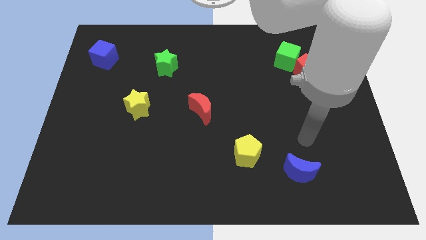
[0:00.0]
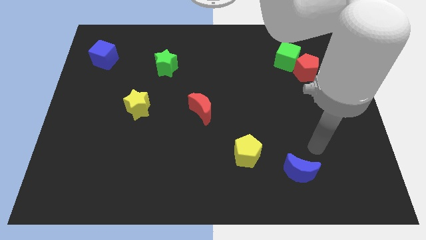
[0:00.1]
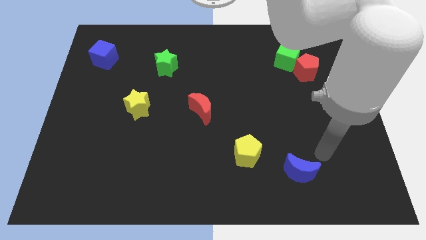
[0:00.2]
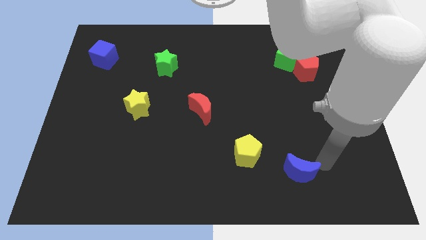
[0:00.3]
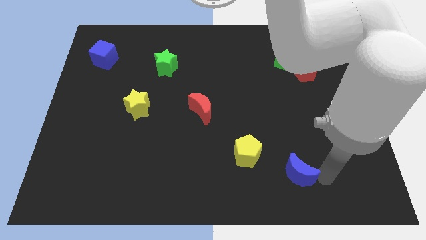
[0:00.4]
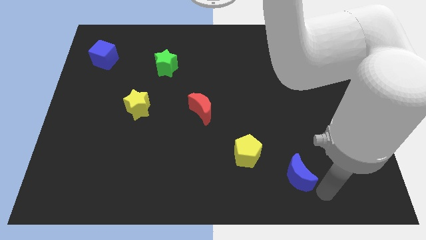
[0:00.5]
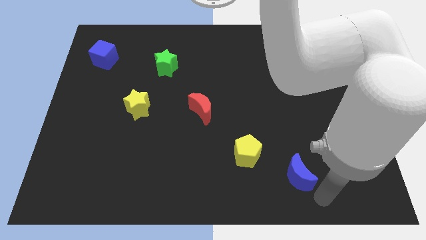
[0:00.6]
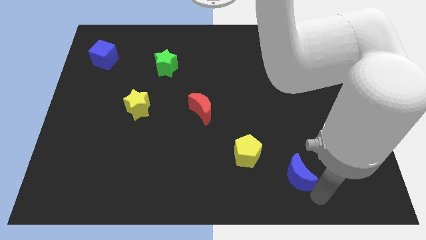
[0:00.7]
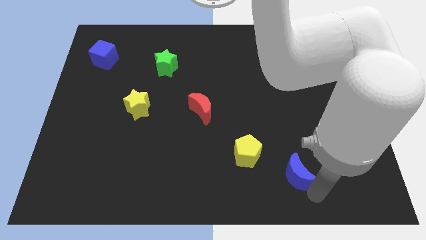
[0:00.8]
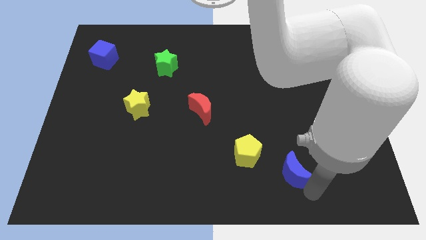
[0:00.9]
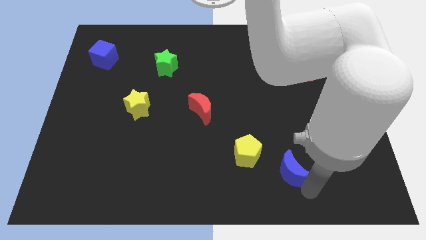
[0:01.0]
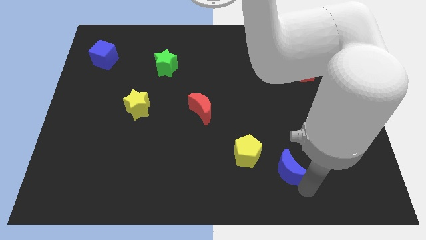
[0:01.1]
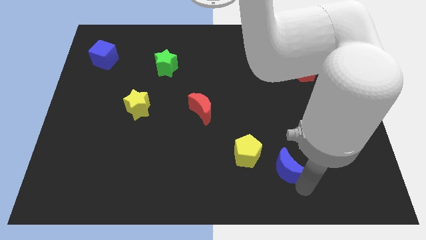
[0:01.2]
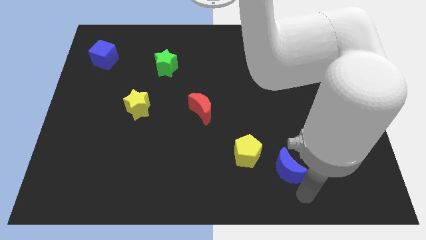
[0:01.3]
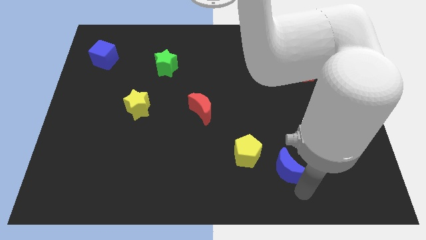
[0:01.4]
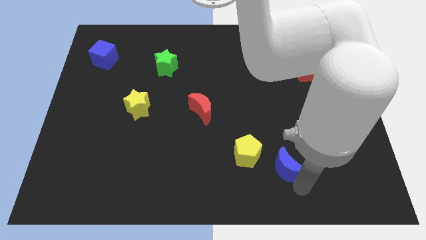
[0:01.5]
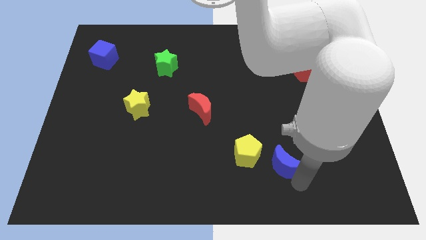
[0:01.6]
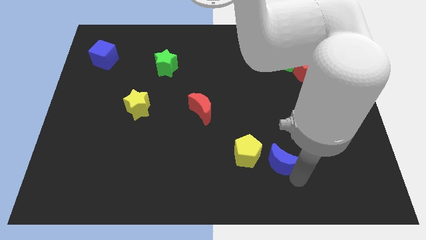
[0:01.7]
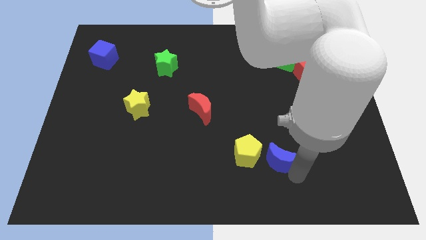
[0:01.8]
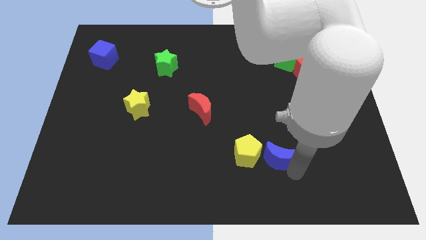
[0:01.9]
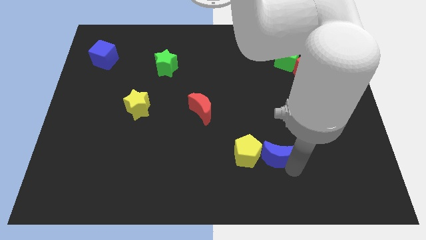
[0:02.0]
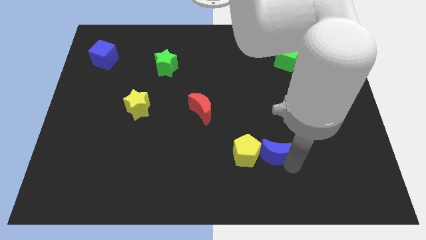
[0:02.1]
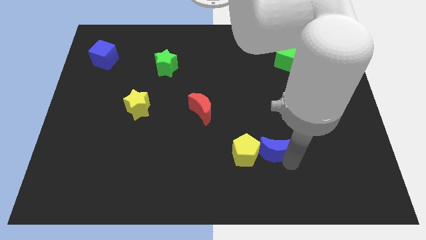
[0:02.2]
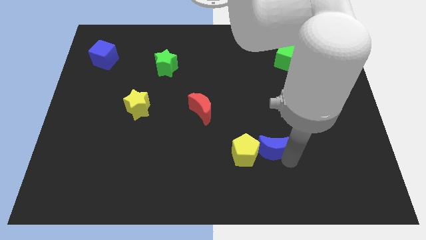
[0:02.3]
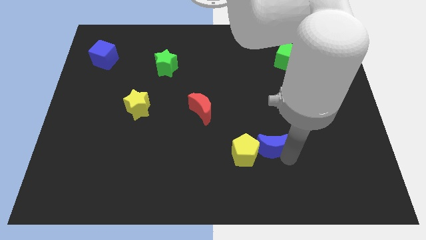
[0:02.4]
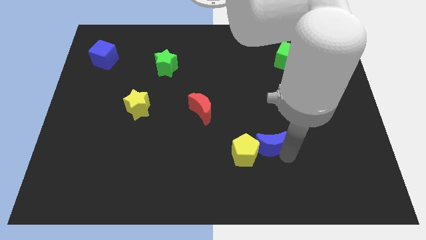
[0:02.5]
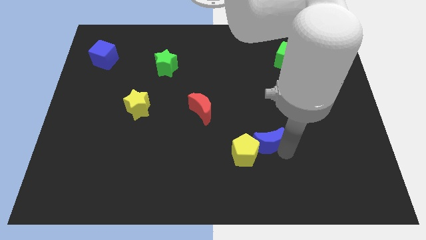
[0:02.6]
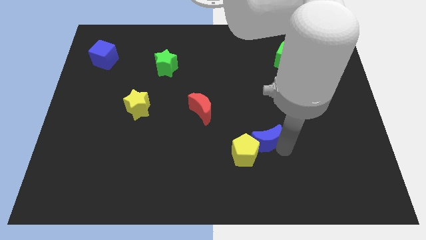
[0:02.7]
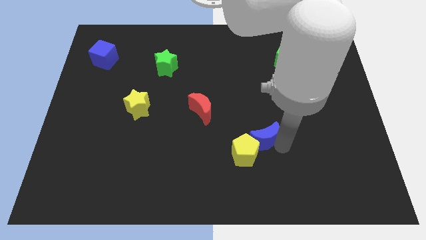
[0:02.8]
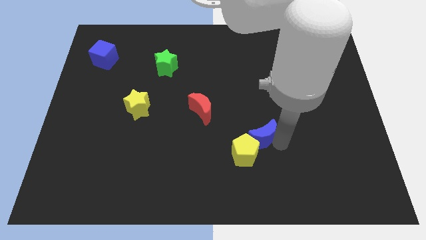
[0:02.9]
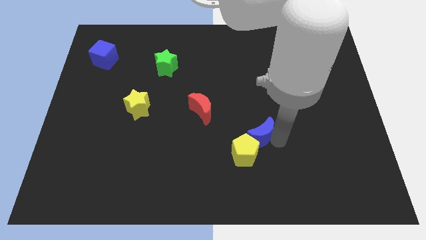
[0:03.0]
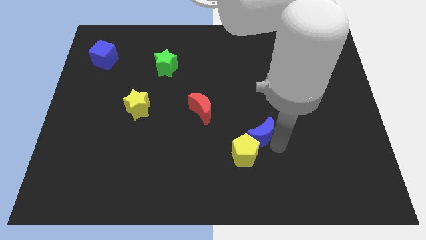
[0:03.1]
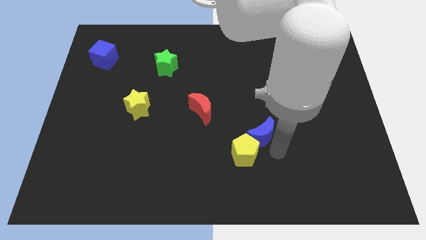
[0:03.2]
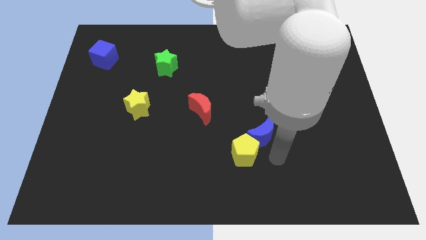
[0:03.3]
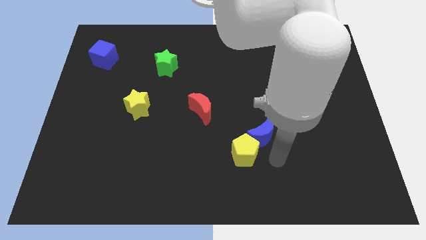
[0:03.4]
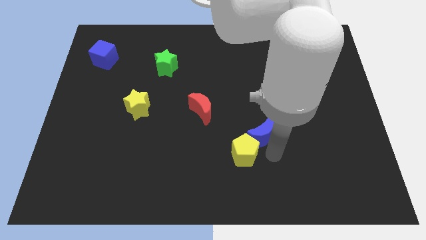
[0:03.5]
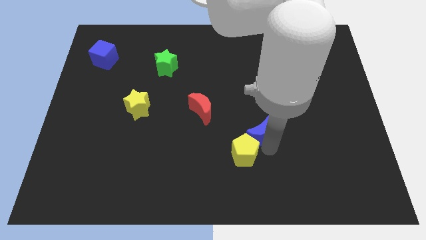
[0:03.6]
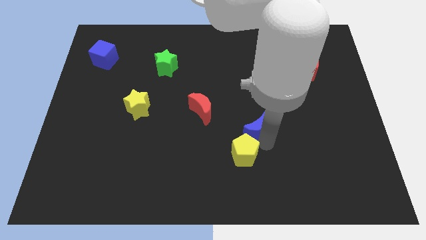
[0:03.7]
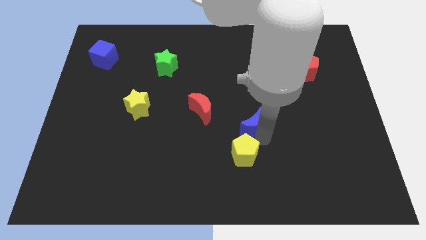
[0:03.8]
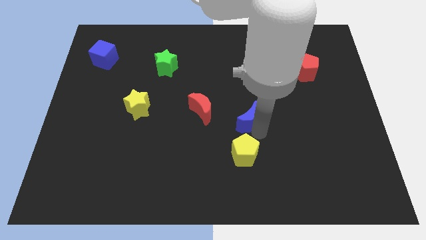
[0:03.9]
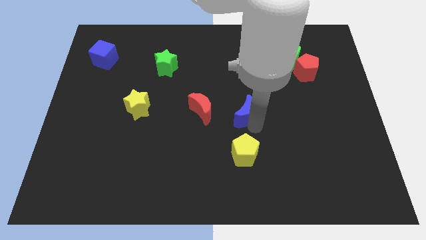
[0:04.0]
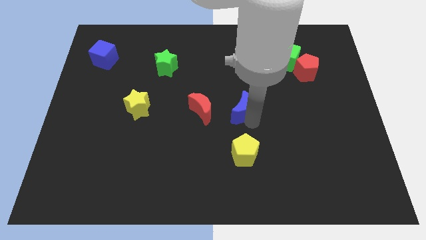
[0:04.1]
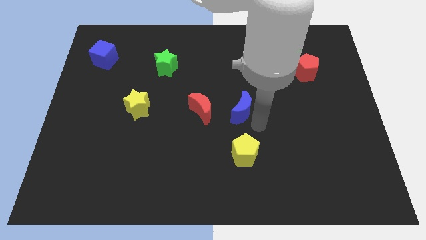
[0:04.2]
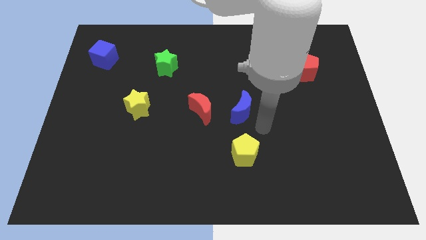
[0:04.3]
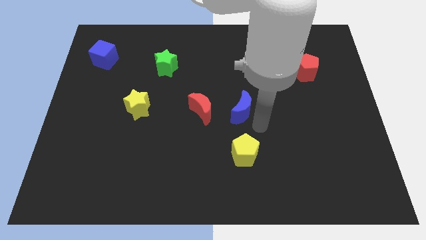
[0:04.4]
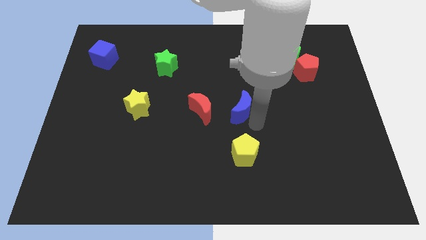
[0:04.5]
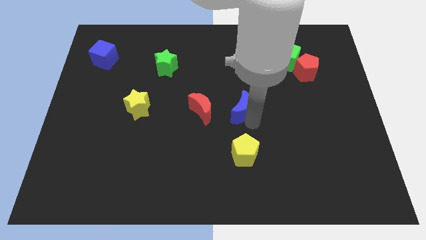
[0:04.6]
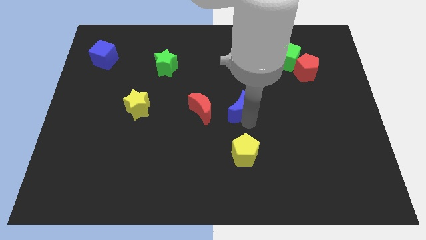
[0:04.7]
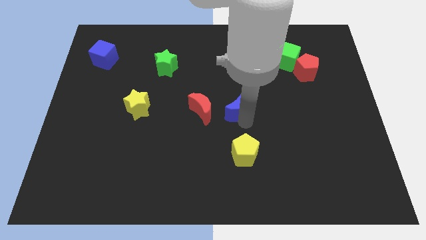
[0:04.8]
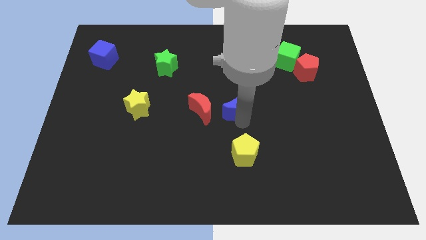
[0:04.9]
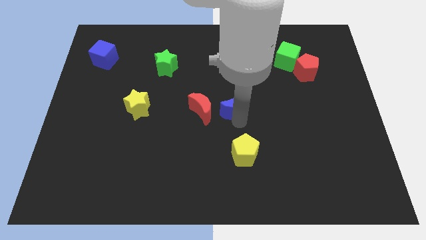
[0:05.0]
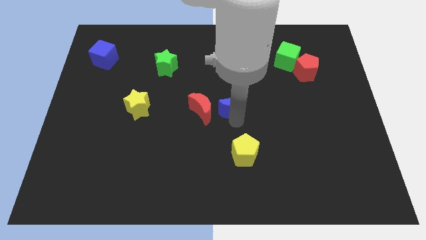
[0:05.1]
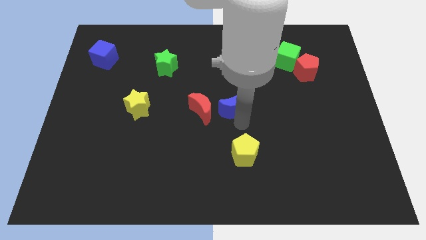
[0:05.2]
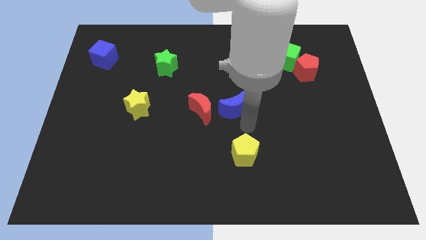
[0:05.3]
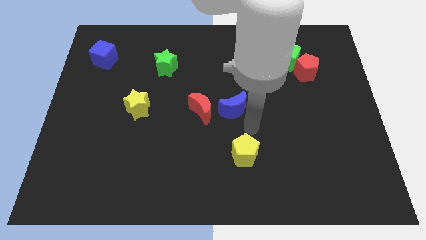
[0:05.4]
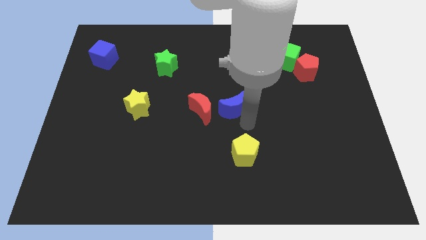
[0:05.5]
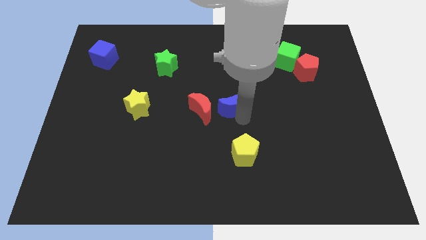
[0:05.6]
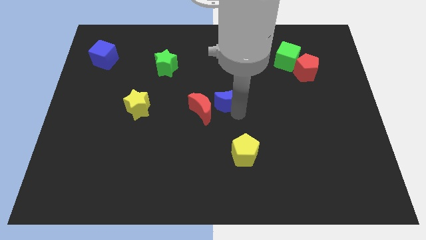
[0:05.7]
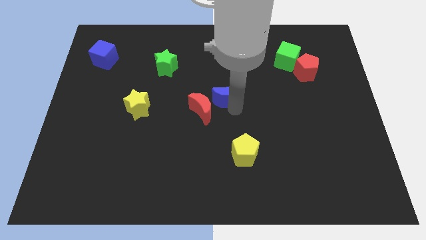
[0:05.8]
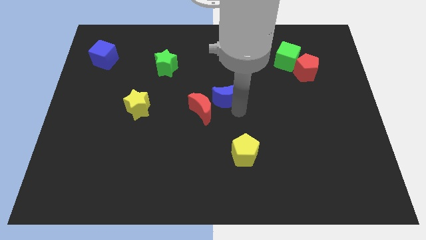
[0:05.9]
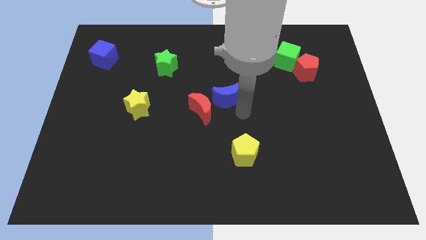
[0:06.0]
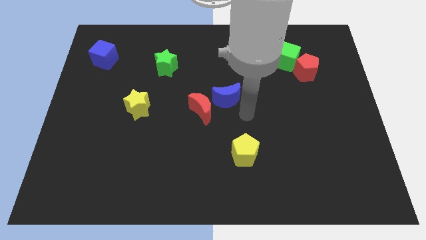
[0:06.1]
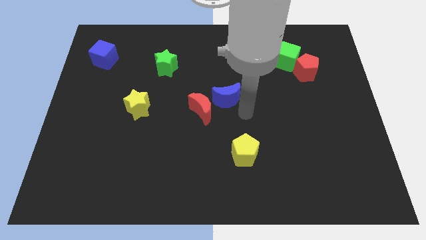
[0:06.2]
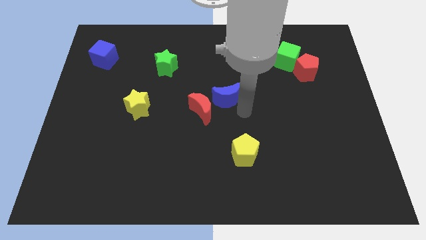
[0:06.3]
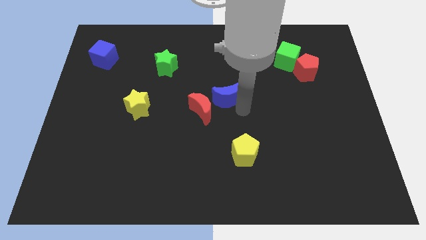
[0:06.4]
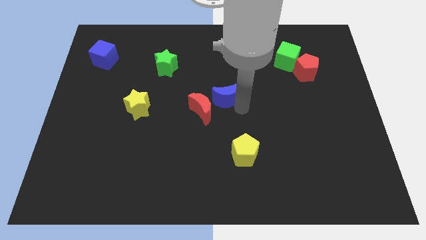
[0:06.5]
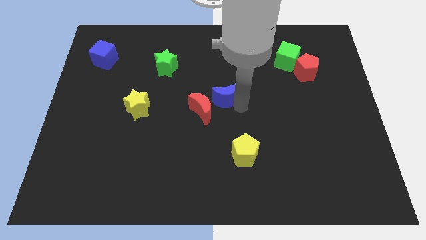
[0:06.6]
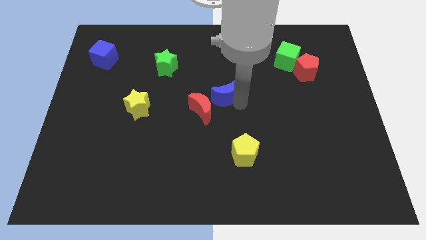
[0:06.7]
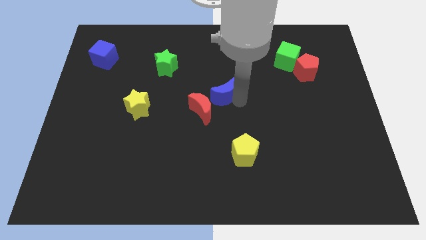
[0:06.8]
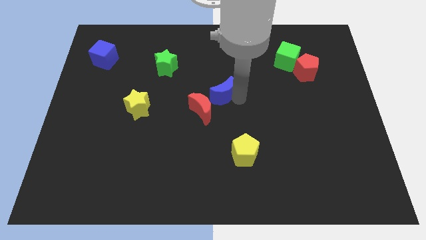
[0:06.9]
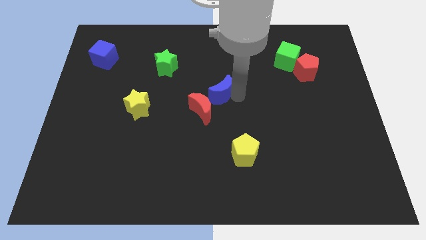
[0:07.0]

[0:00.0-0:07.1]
slide the blue moon to the top of the red moon

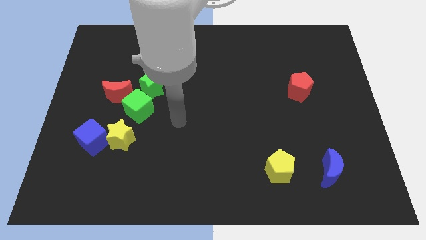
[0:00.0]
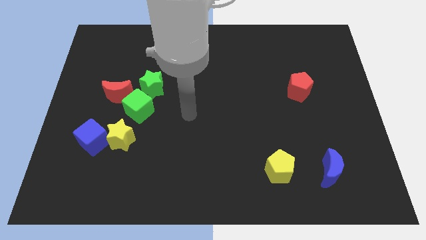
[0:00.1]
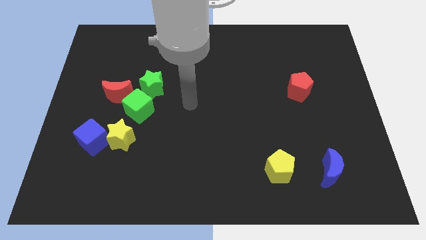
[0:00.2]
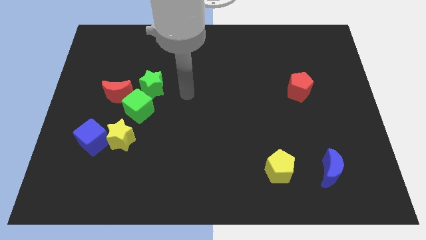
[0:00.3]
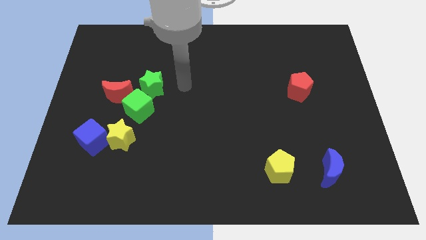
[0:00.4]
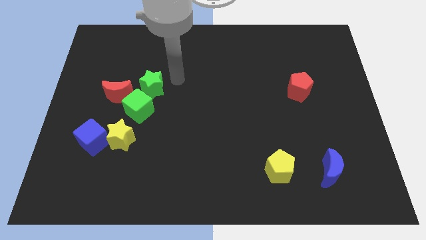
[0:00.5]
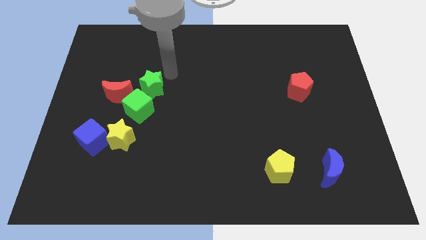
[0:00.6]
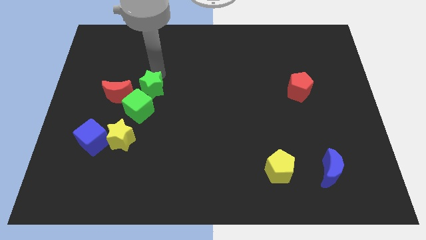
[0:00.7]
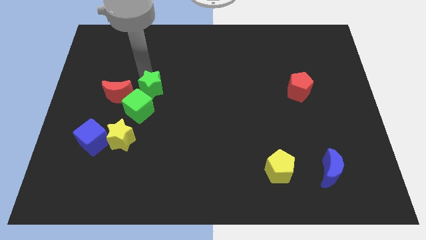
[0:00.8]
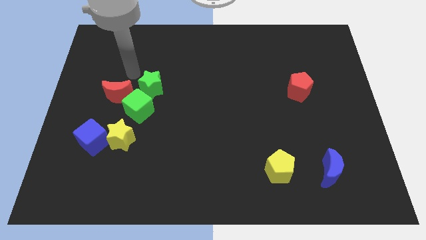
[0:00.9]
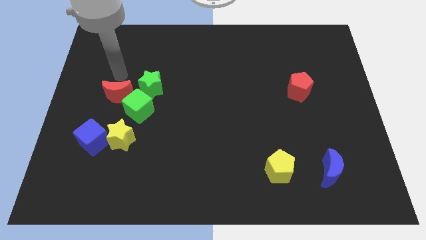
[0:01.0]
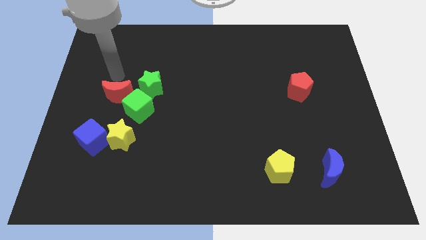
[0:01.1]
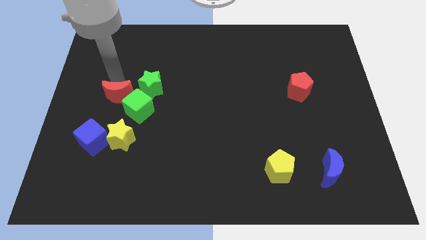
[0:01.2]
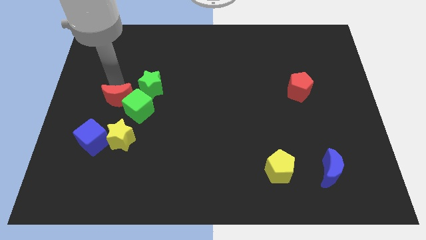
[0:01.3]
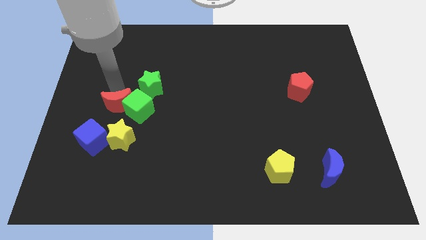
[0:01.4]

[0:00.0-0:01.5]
slide the red moon to the top right side of the blue cube
